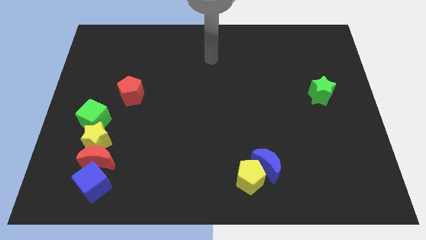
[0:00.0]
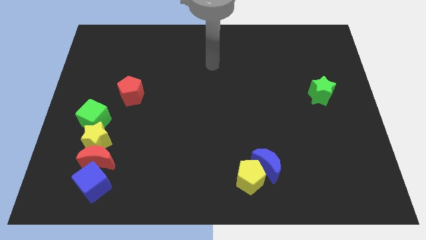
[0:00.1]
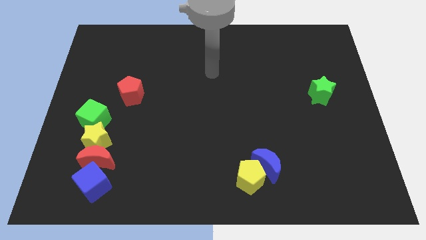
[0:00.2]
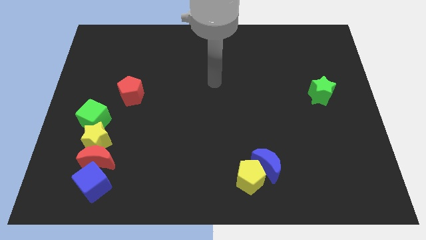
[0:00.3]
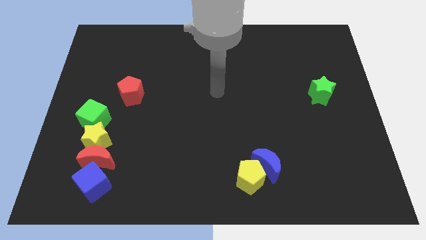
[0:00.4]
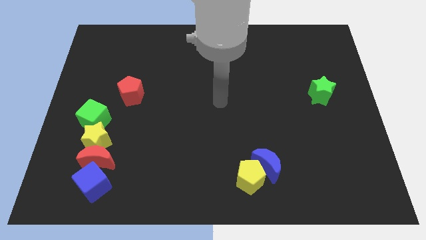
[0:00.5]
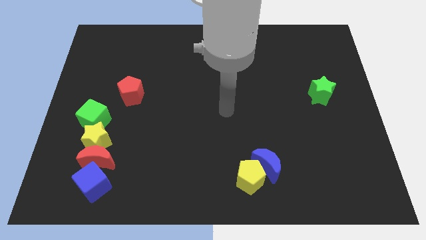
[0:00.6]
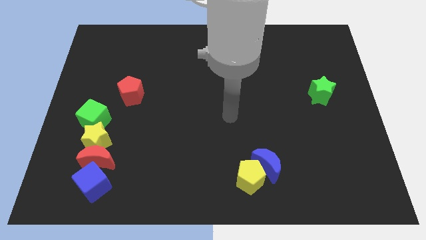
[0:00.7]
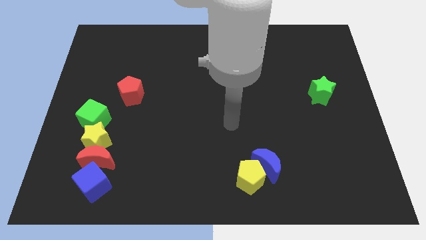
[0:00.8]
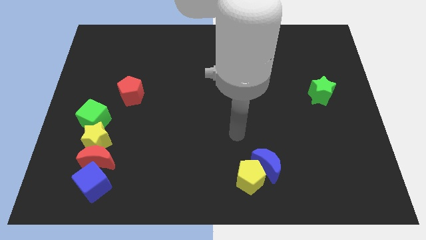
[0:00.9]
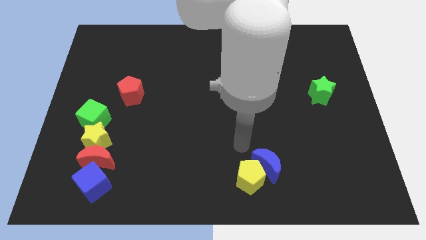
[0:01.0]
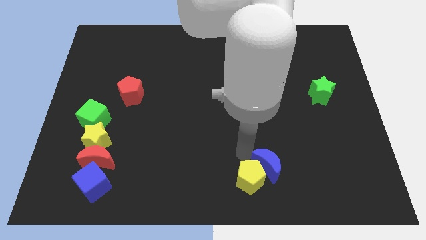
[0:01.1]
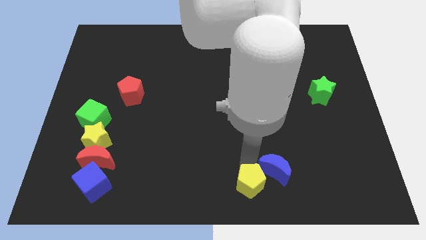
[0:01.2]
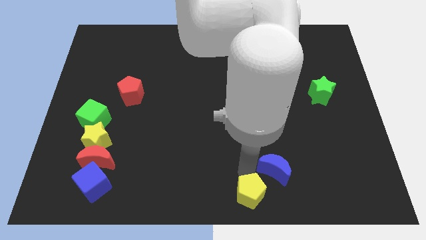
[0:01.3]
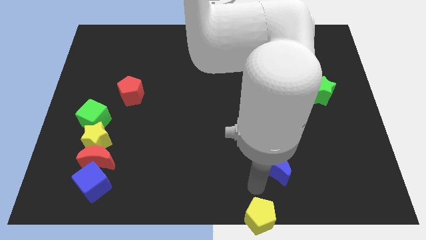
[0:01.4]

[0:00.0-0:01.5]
move the blue moon away from the yellow pentagon

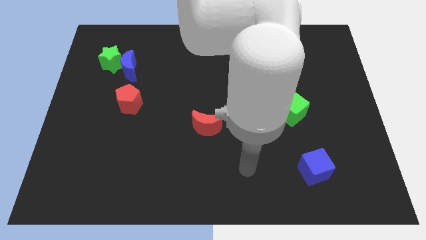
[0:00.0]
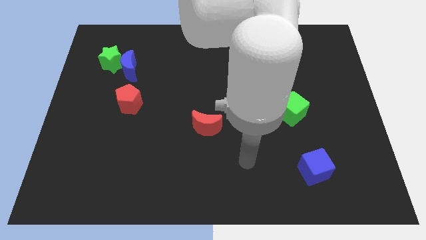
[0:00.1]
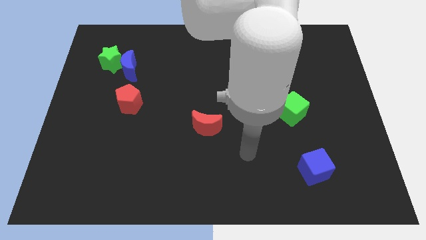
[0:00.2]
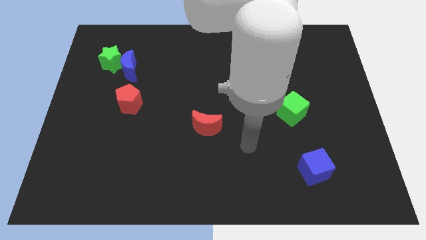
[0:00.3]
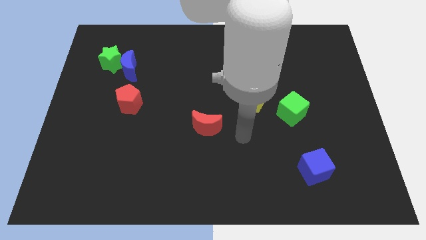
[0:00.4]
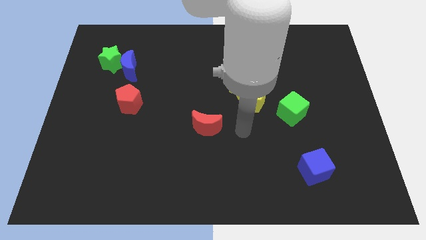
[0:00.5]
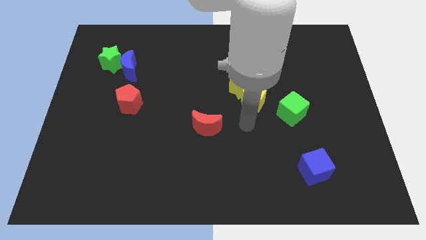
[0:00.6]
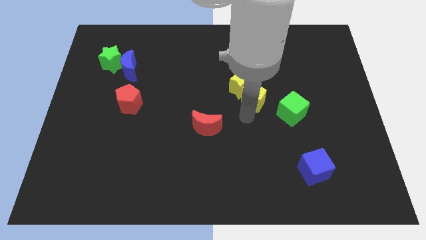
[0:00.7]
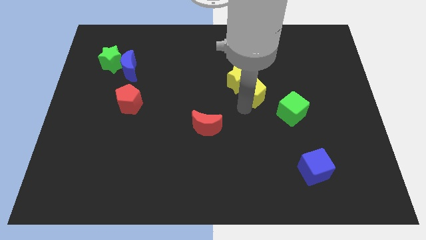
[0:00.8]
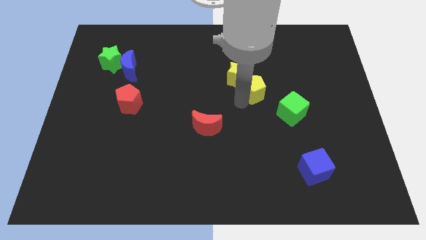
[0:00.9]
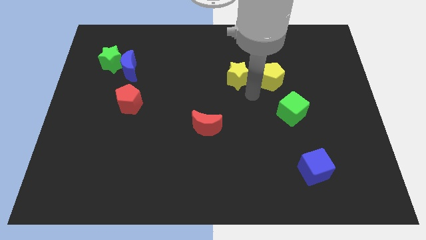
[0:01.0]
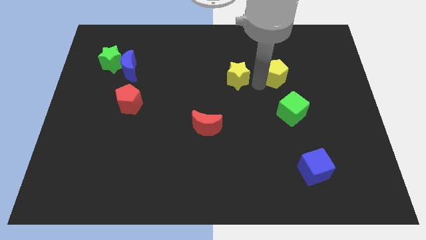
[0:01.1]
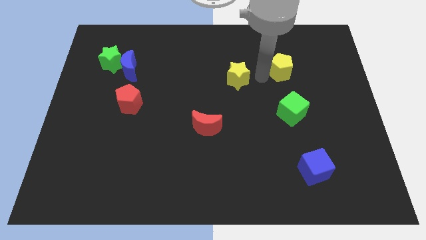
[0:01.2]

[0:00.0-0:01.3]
separate the yellow star from the yellow pentagon

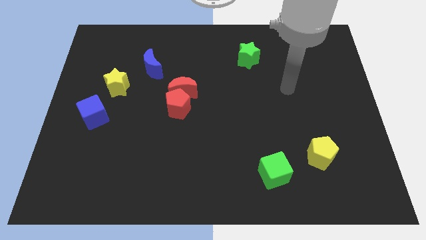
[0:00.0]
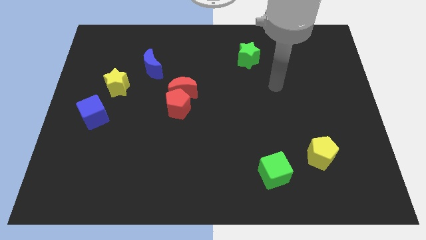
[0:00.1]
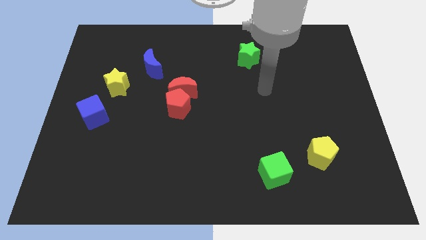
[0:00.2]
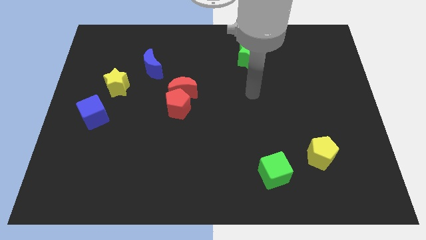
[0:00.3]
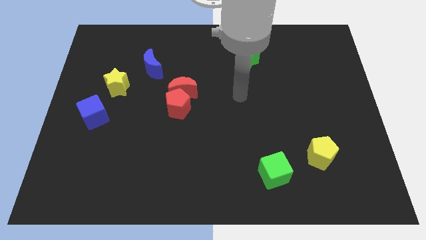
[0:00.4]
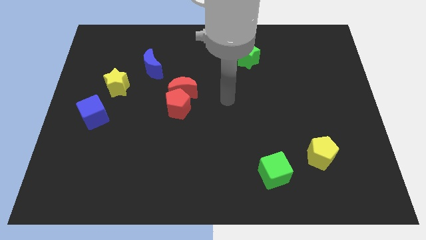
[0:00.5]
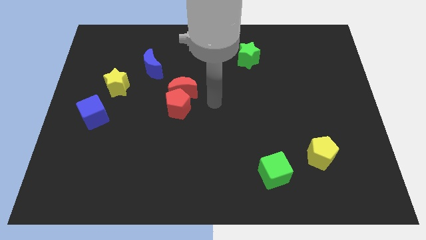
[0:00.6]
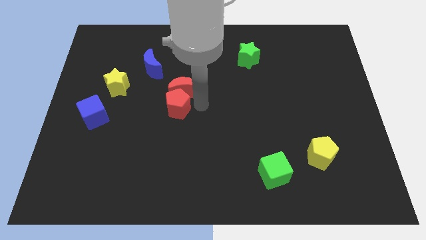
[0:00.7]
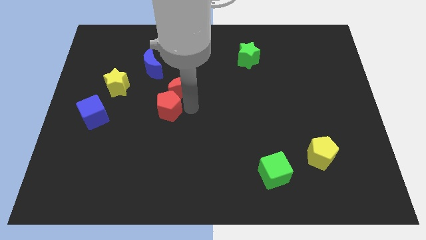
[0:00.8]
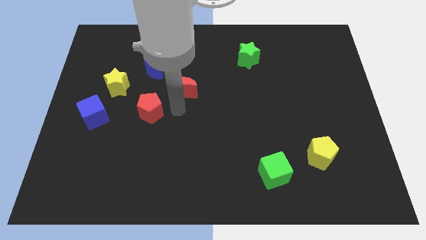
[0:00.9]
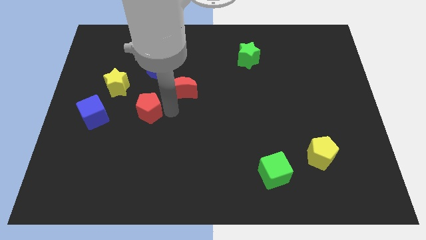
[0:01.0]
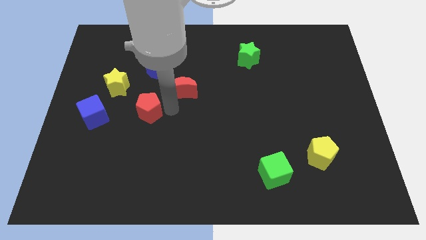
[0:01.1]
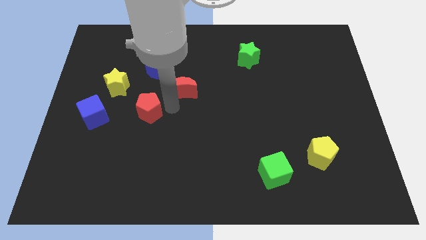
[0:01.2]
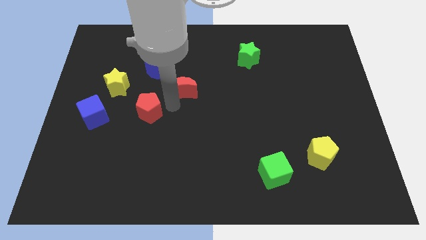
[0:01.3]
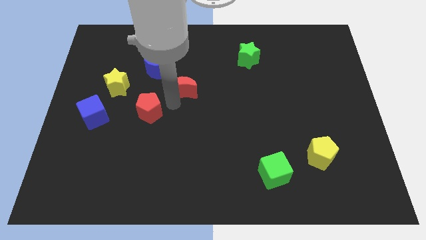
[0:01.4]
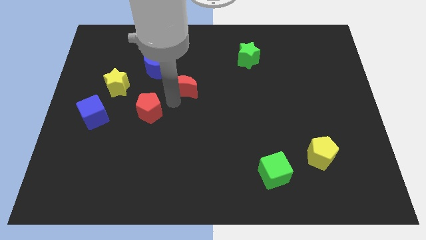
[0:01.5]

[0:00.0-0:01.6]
pull the red moon apart from the red pentagon

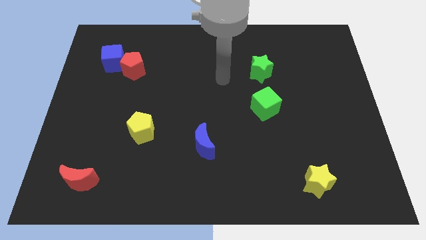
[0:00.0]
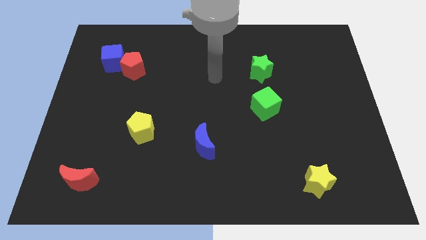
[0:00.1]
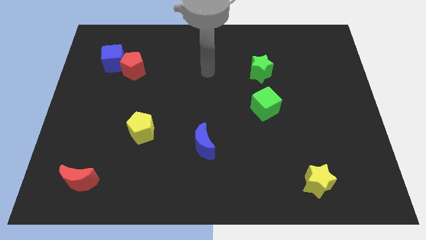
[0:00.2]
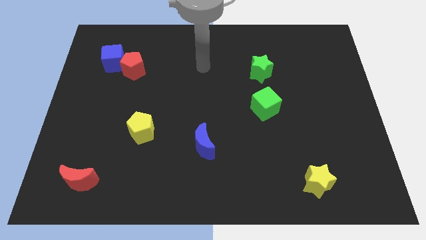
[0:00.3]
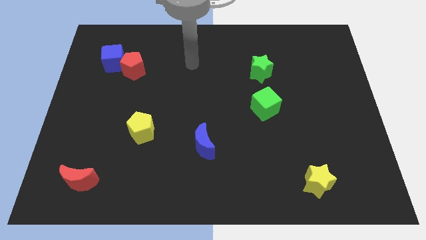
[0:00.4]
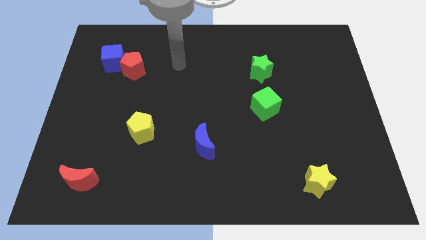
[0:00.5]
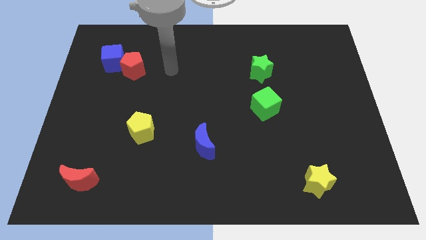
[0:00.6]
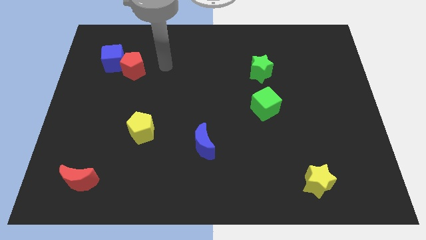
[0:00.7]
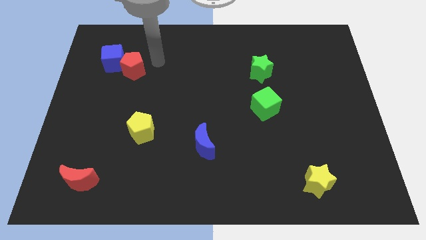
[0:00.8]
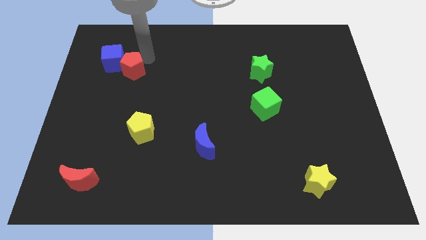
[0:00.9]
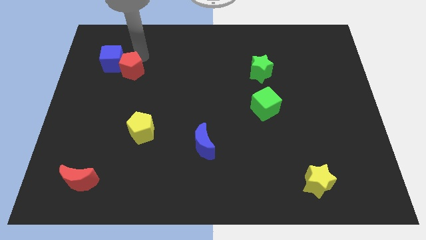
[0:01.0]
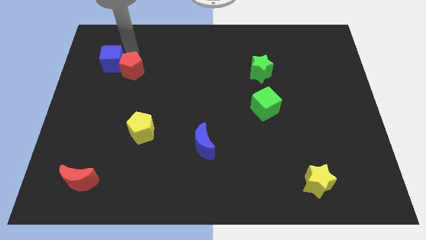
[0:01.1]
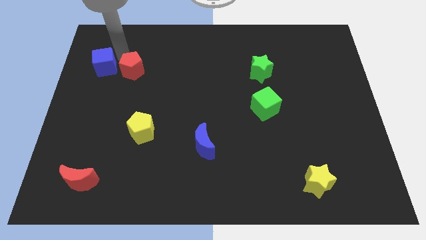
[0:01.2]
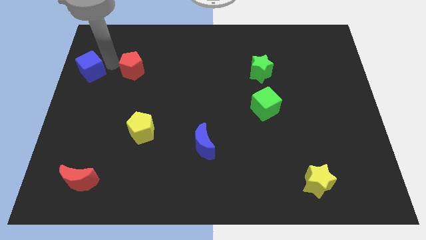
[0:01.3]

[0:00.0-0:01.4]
move the red pentagon away from the blue cube

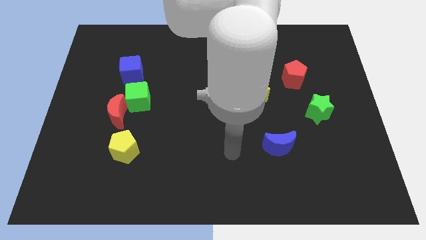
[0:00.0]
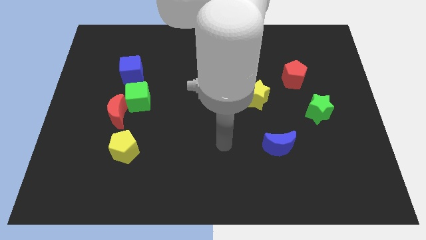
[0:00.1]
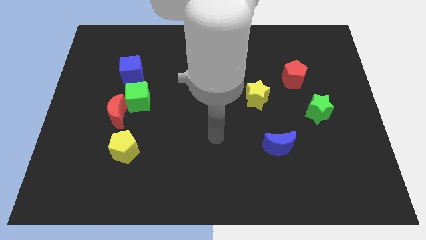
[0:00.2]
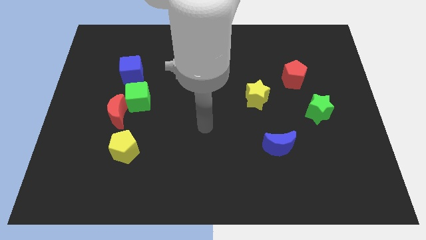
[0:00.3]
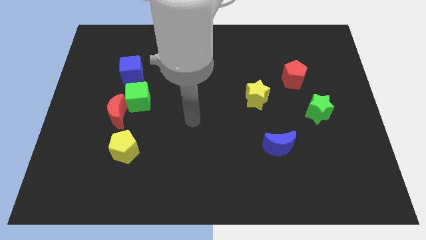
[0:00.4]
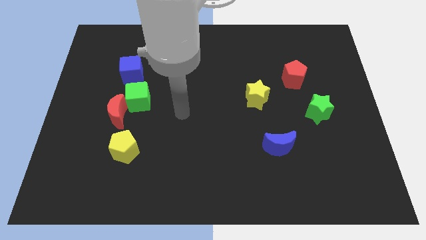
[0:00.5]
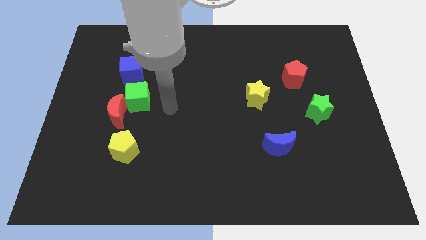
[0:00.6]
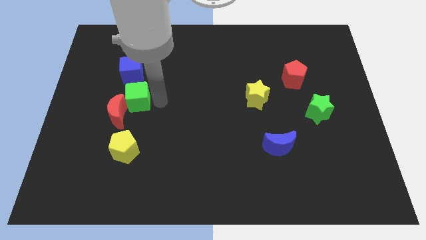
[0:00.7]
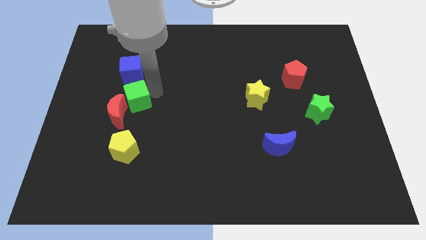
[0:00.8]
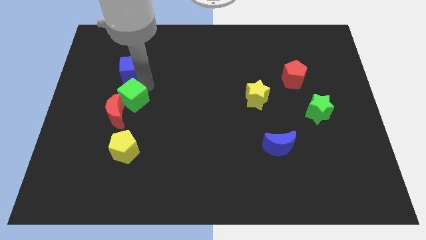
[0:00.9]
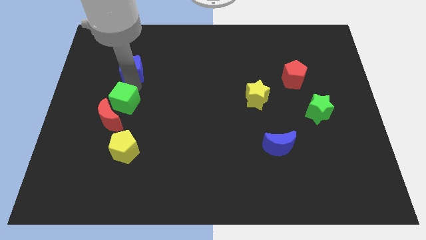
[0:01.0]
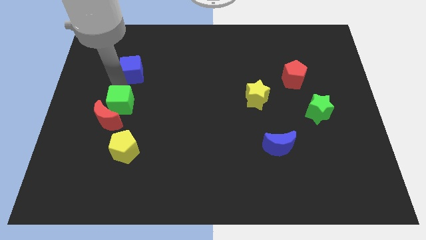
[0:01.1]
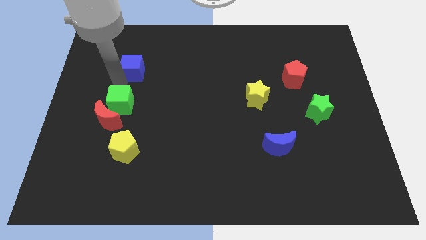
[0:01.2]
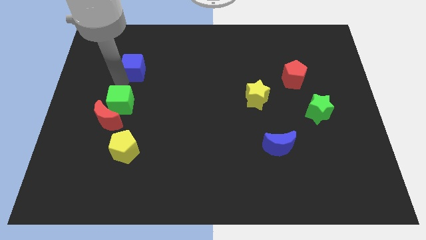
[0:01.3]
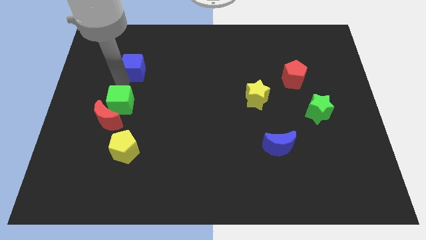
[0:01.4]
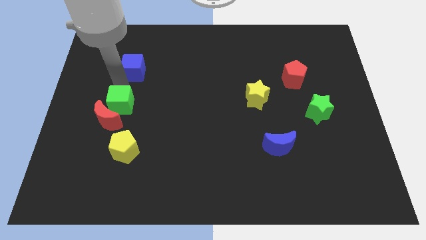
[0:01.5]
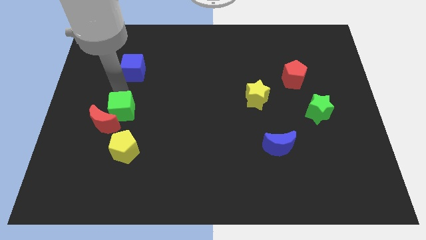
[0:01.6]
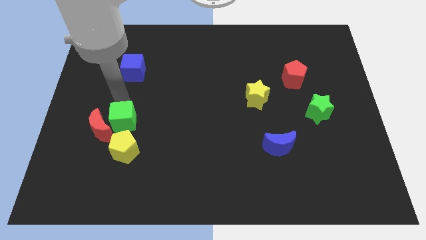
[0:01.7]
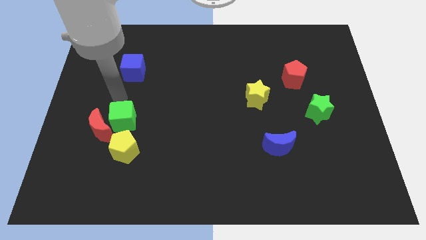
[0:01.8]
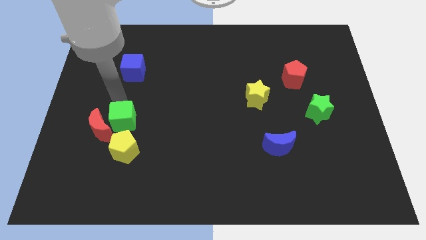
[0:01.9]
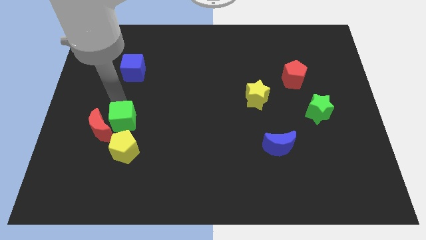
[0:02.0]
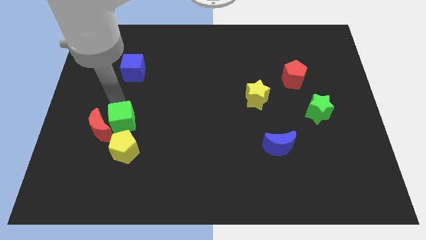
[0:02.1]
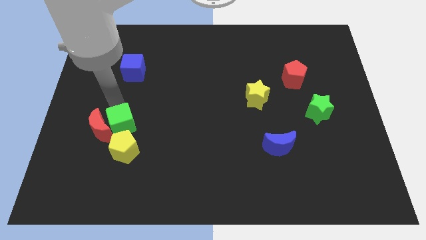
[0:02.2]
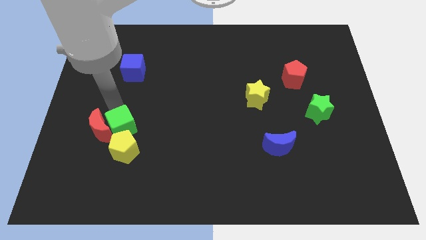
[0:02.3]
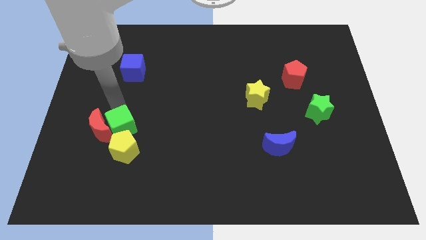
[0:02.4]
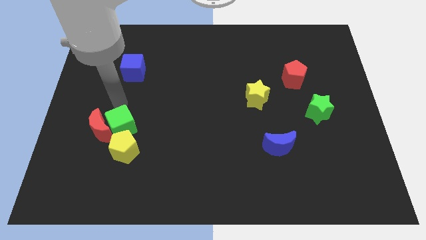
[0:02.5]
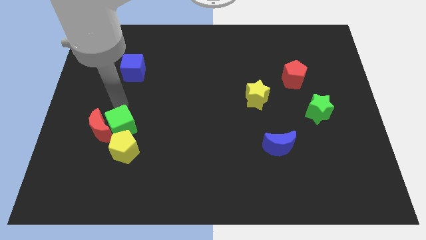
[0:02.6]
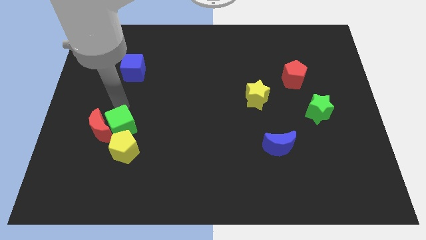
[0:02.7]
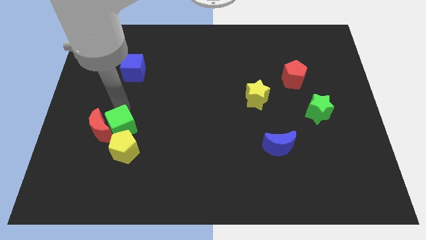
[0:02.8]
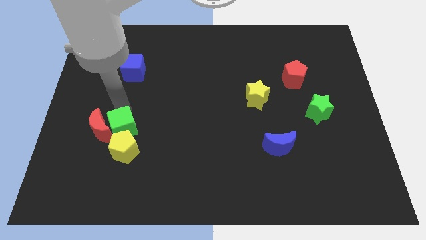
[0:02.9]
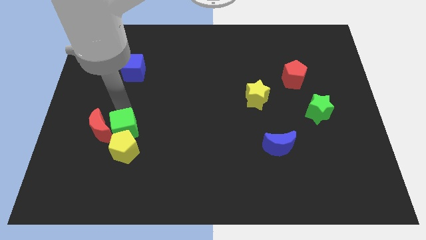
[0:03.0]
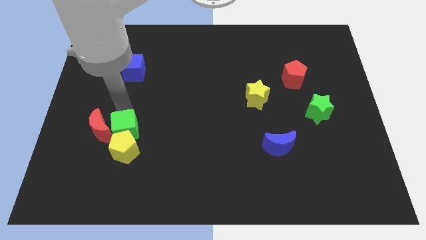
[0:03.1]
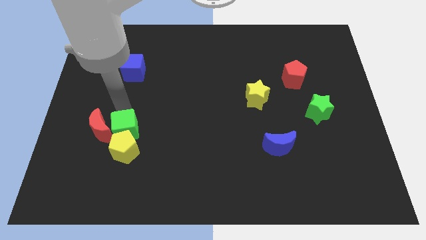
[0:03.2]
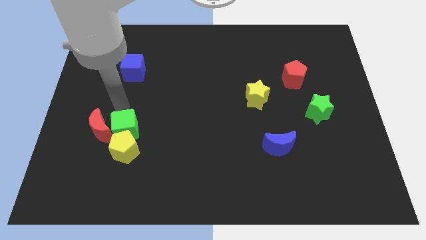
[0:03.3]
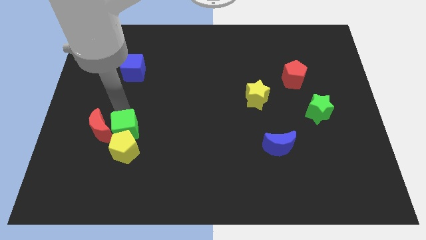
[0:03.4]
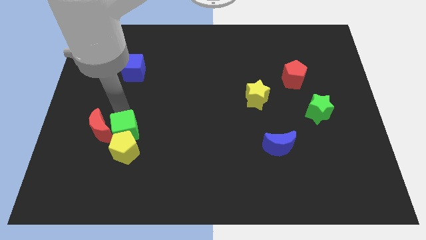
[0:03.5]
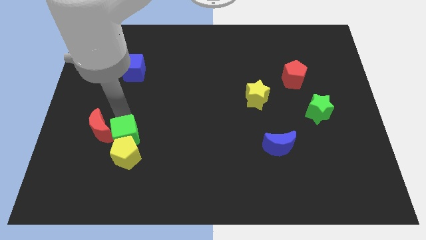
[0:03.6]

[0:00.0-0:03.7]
separate the green cube from the red moon and blue cube
